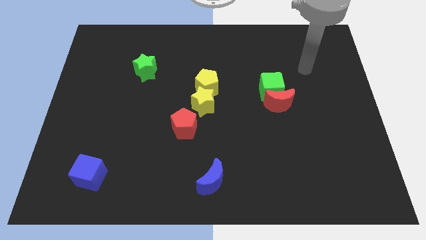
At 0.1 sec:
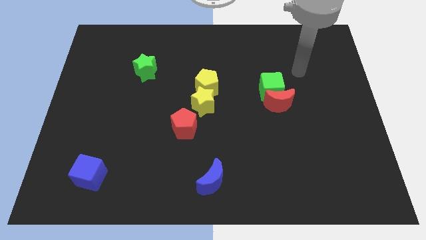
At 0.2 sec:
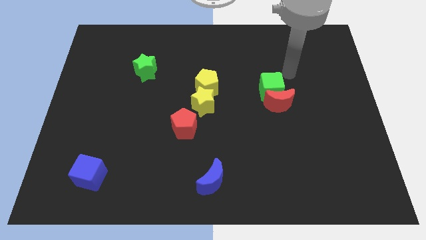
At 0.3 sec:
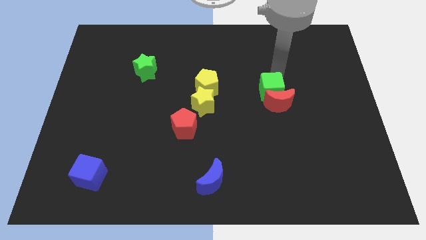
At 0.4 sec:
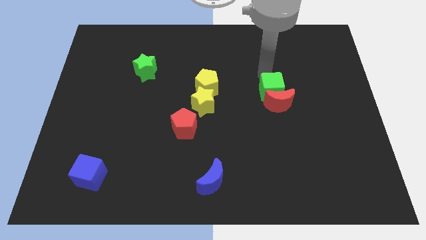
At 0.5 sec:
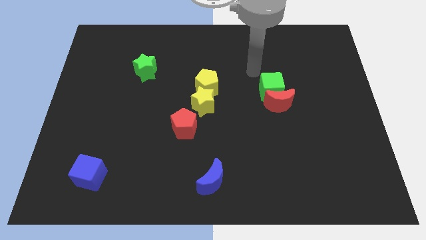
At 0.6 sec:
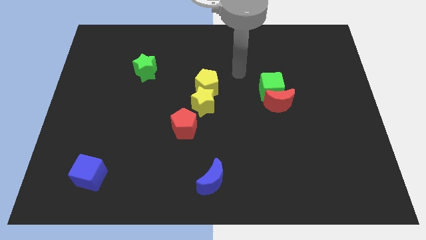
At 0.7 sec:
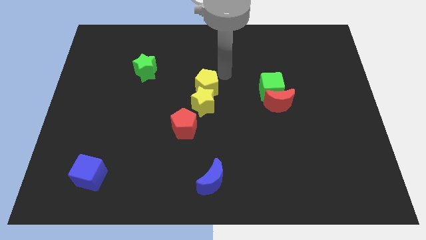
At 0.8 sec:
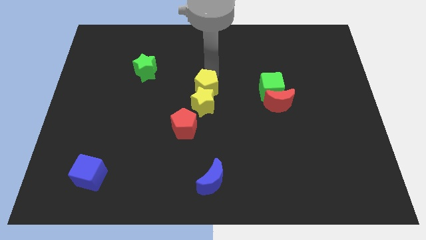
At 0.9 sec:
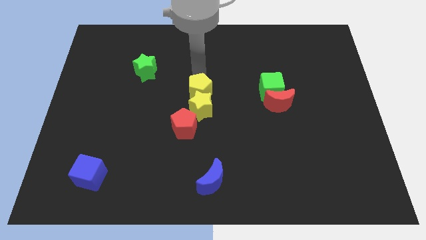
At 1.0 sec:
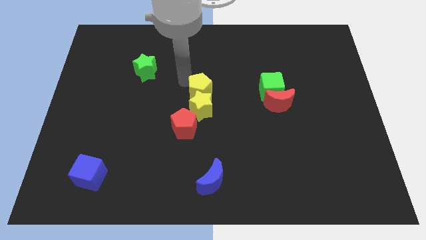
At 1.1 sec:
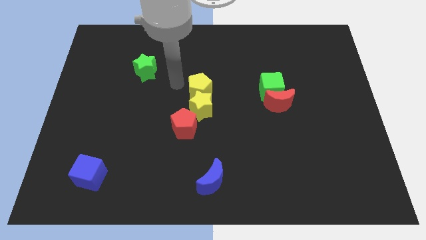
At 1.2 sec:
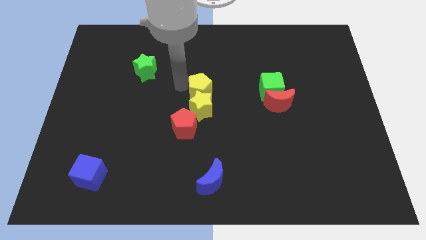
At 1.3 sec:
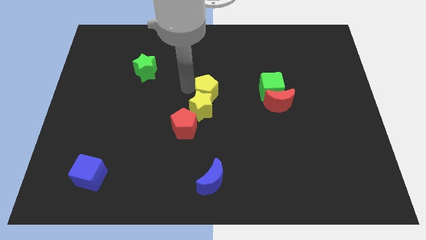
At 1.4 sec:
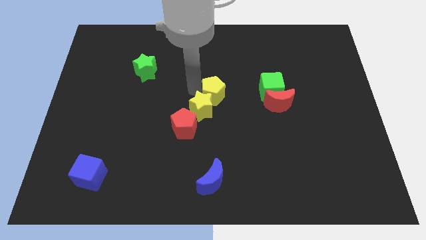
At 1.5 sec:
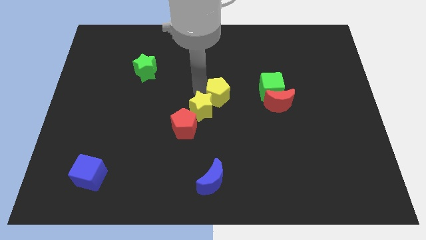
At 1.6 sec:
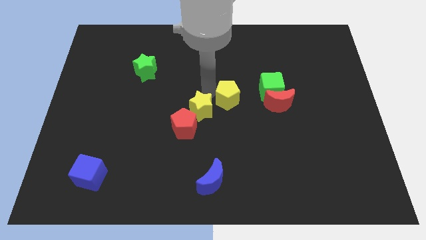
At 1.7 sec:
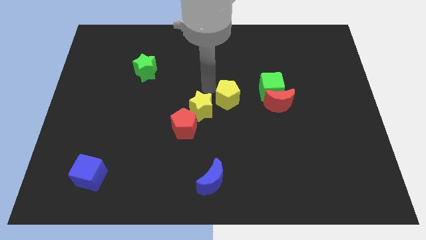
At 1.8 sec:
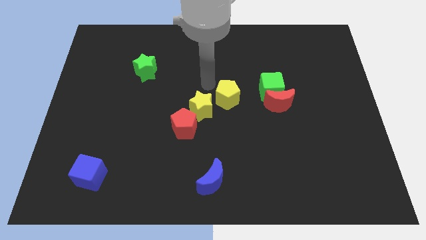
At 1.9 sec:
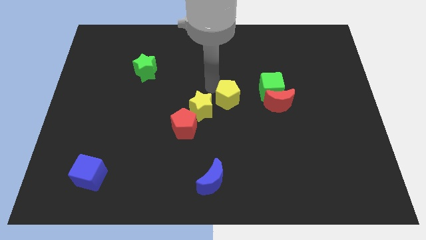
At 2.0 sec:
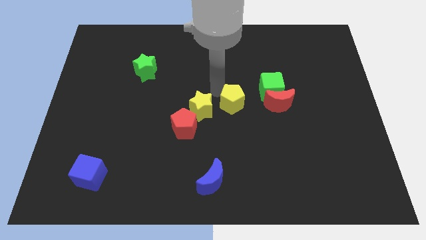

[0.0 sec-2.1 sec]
slide the yellow pentagon diagonally downwards and right a little

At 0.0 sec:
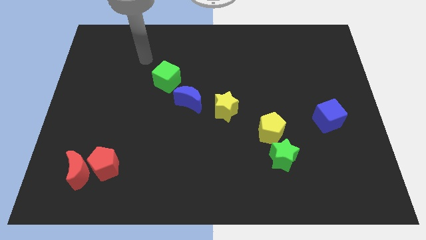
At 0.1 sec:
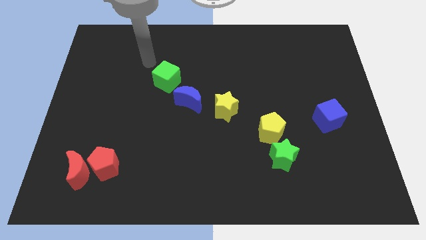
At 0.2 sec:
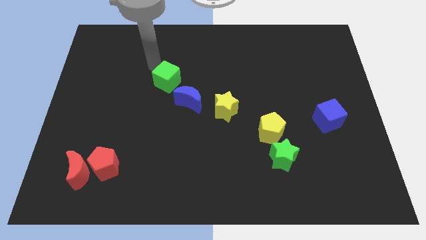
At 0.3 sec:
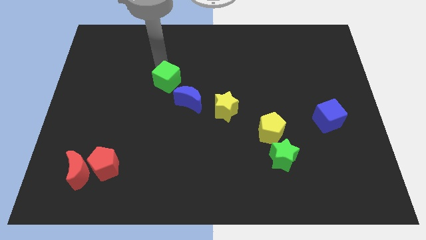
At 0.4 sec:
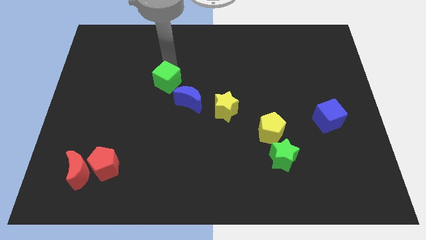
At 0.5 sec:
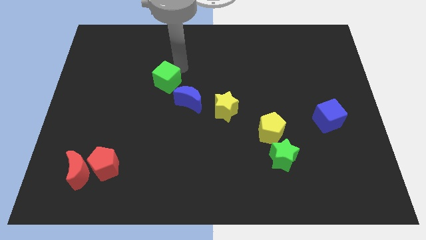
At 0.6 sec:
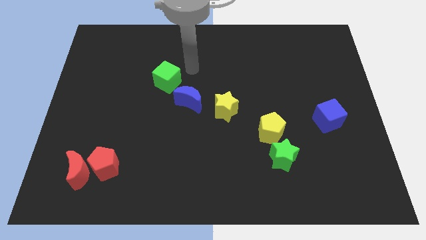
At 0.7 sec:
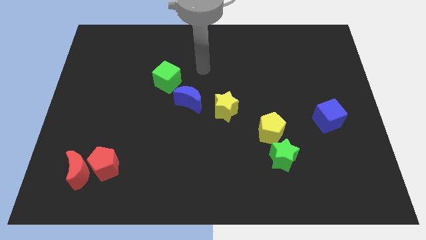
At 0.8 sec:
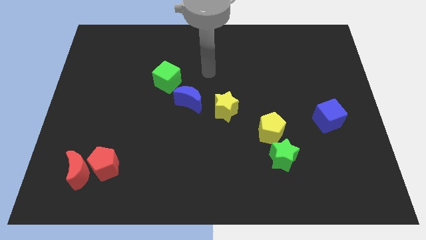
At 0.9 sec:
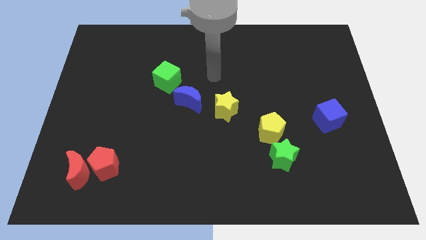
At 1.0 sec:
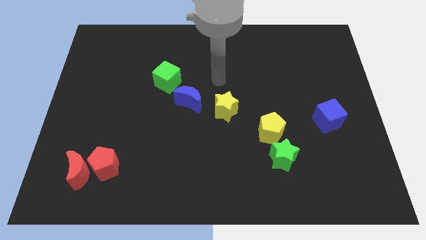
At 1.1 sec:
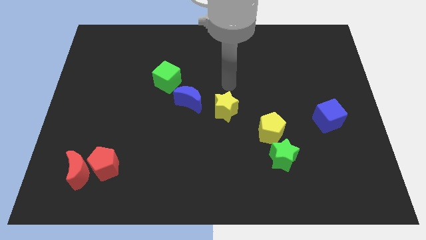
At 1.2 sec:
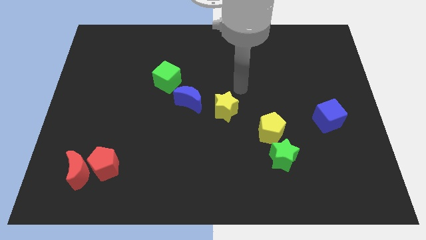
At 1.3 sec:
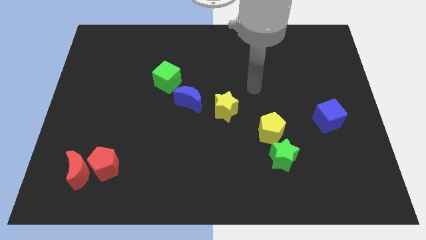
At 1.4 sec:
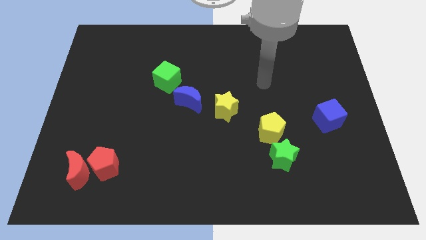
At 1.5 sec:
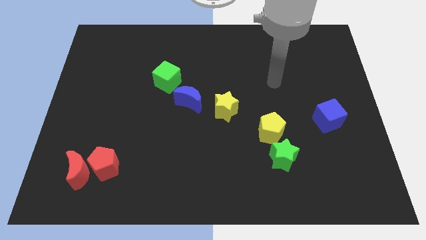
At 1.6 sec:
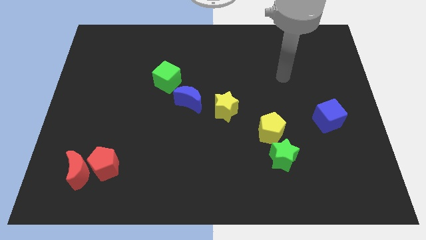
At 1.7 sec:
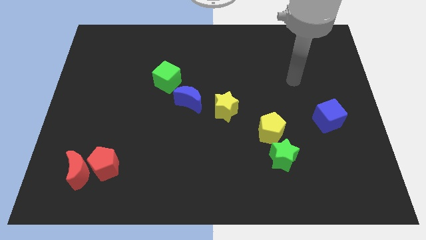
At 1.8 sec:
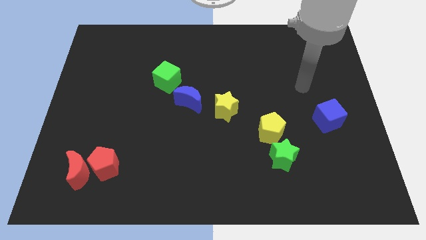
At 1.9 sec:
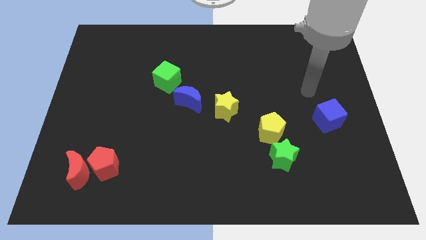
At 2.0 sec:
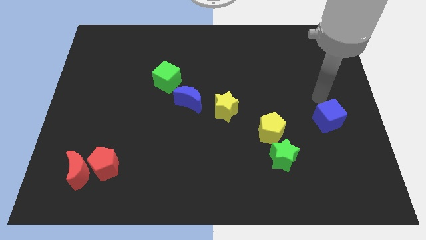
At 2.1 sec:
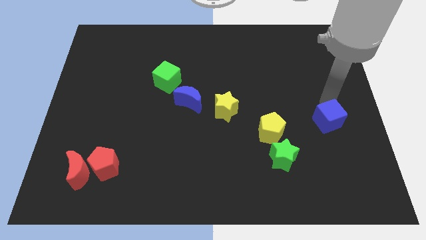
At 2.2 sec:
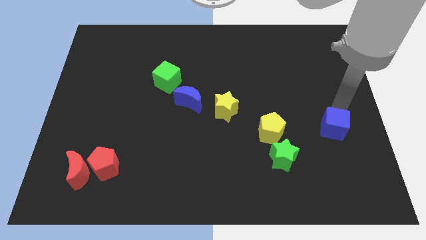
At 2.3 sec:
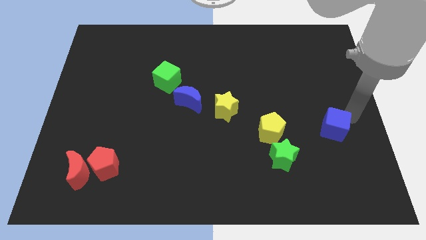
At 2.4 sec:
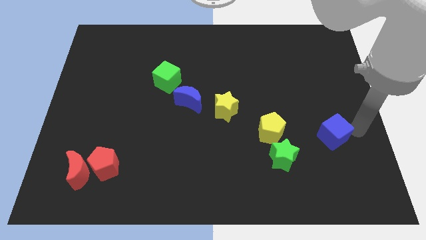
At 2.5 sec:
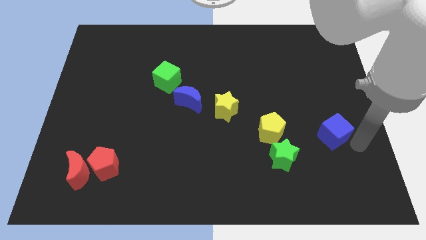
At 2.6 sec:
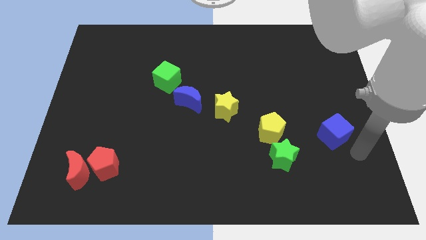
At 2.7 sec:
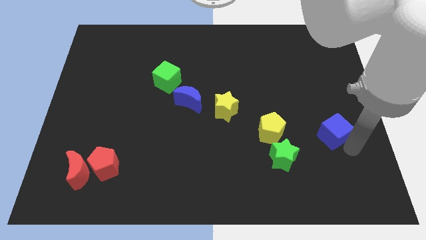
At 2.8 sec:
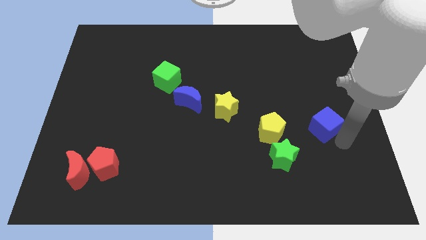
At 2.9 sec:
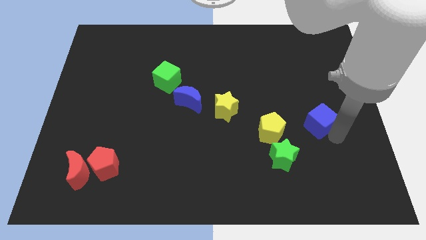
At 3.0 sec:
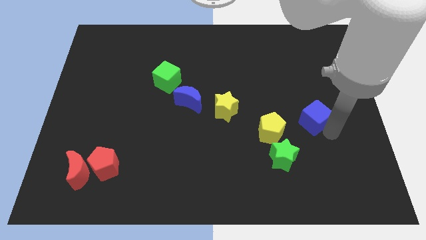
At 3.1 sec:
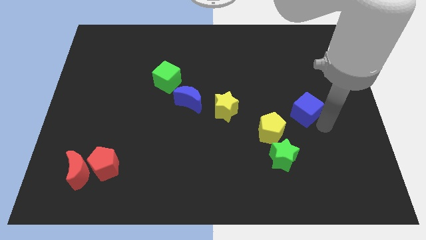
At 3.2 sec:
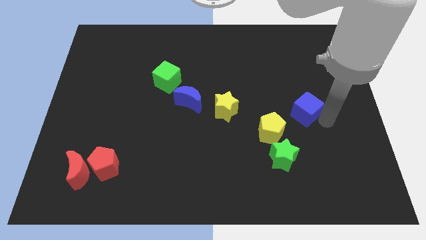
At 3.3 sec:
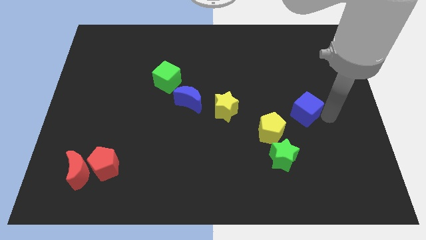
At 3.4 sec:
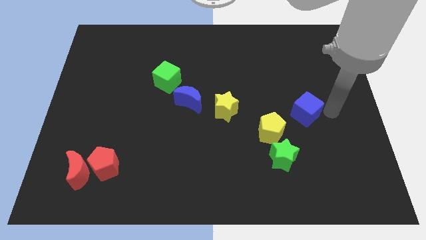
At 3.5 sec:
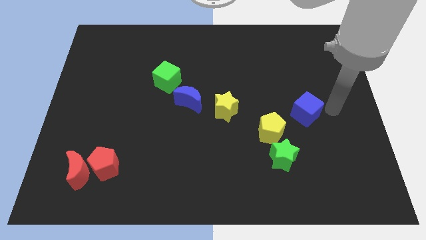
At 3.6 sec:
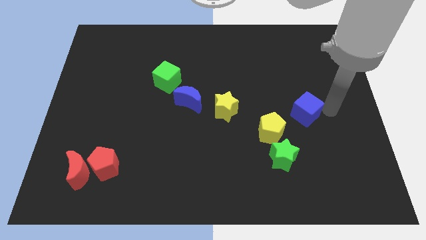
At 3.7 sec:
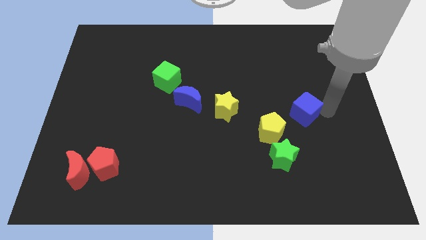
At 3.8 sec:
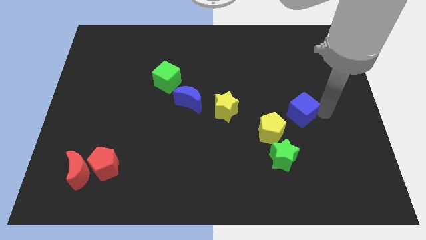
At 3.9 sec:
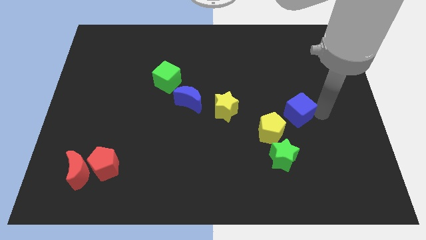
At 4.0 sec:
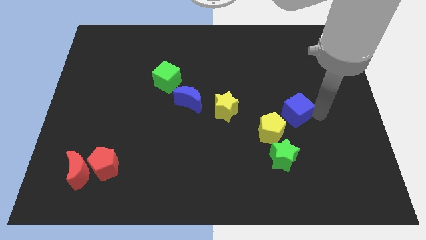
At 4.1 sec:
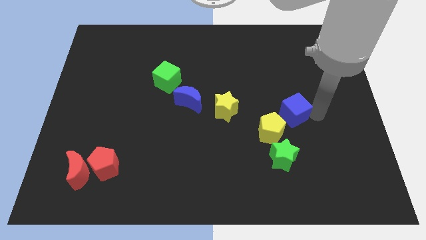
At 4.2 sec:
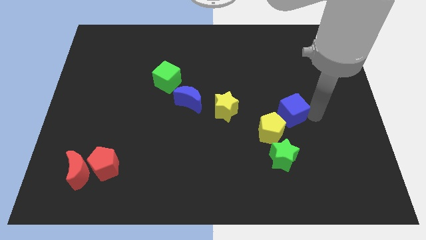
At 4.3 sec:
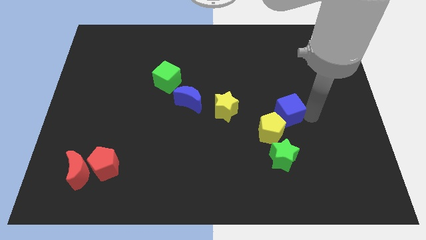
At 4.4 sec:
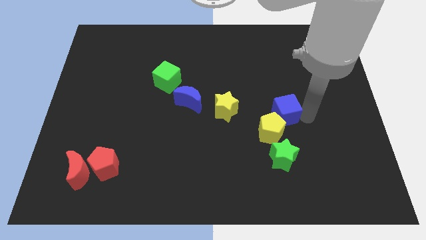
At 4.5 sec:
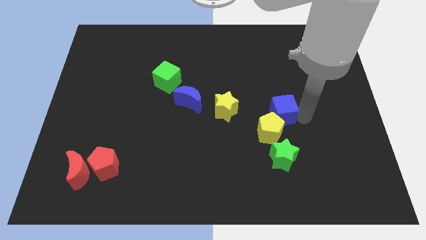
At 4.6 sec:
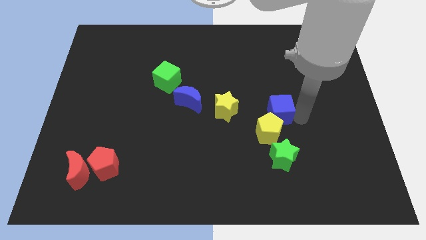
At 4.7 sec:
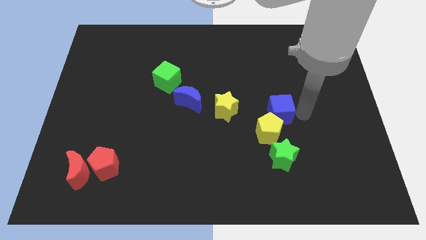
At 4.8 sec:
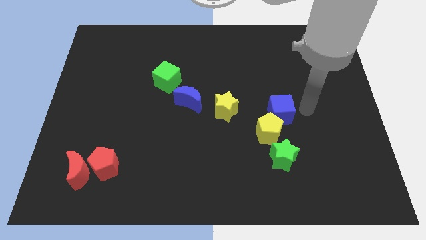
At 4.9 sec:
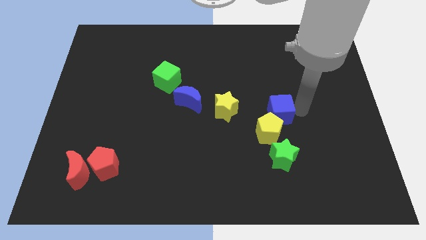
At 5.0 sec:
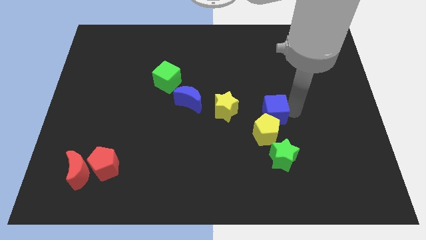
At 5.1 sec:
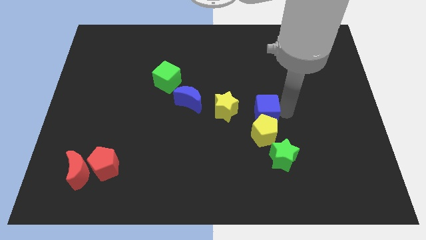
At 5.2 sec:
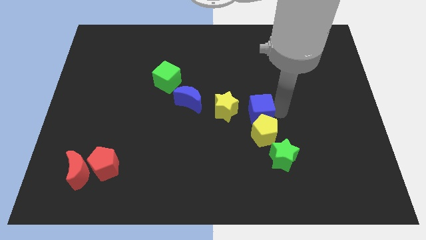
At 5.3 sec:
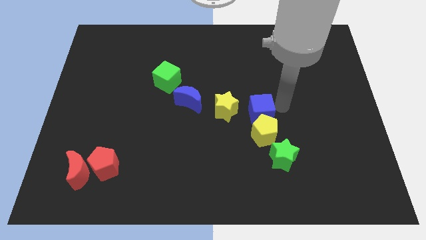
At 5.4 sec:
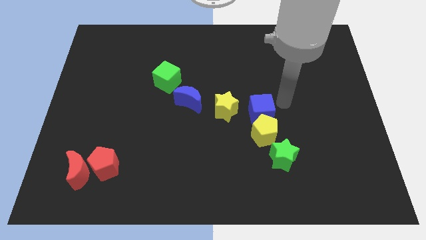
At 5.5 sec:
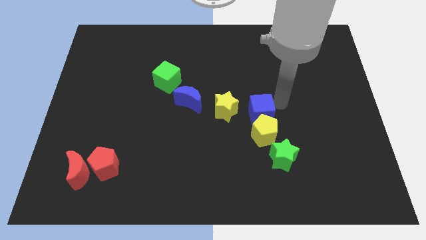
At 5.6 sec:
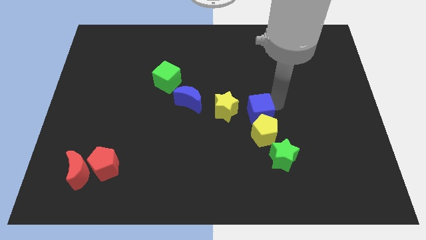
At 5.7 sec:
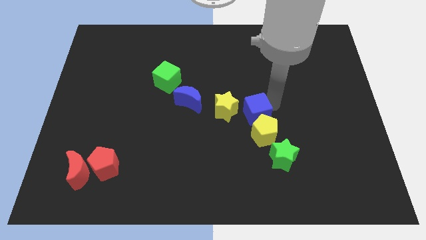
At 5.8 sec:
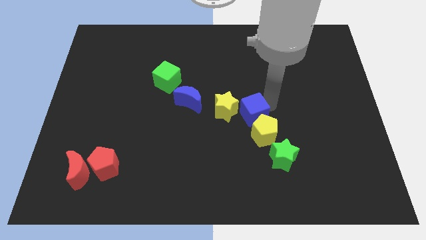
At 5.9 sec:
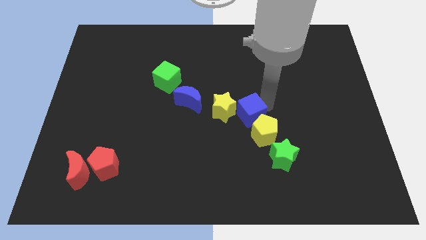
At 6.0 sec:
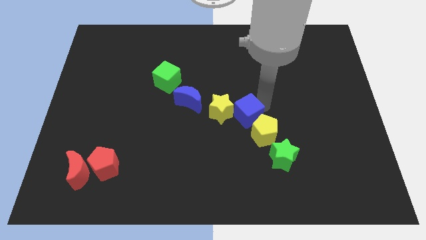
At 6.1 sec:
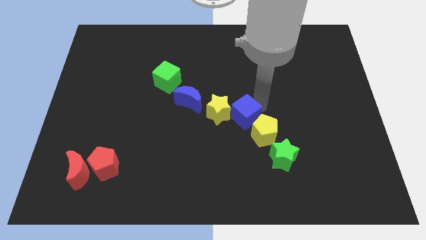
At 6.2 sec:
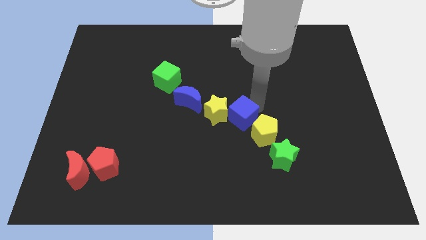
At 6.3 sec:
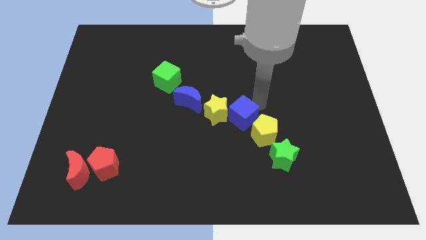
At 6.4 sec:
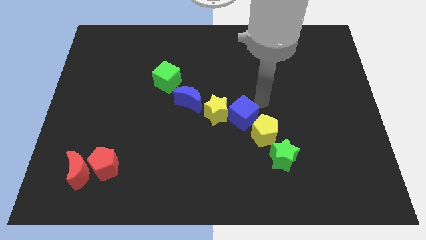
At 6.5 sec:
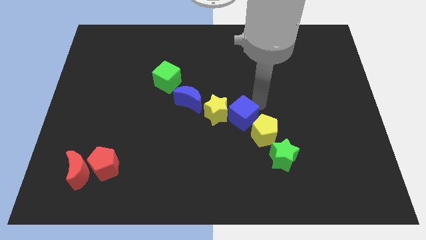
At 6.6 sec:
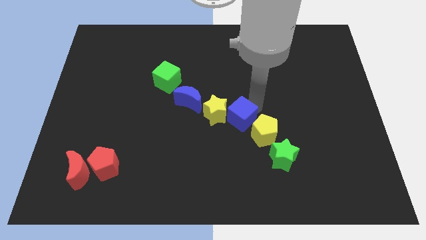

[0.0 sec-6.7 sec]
slide the blue cube left
